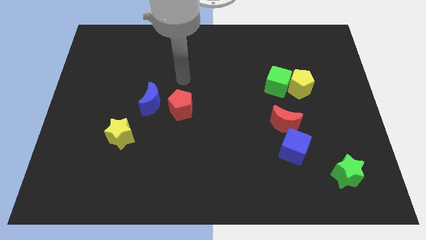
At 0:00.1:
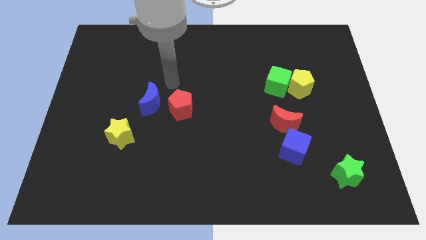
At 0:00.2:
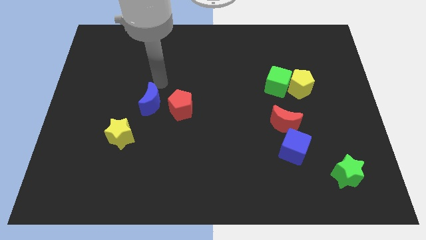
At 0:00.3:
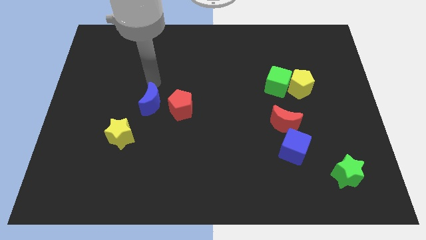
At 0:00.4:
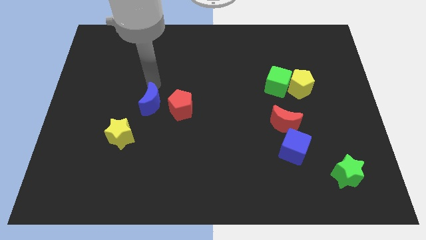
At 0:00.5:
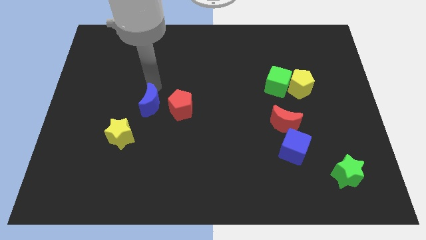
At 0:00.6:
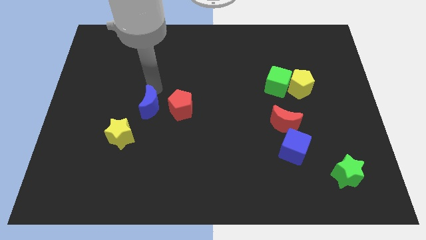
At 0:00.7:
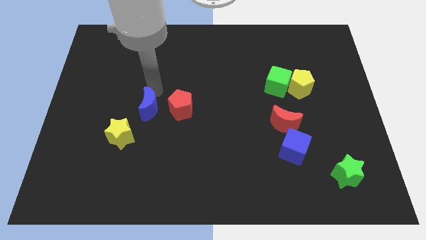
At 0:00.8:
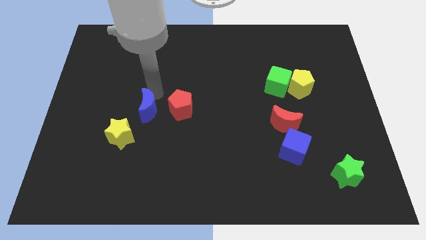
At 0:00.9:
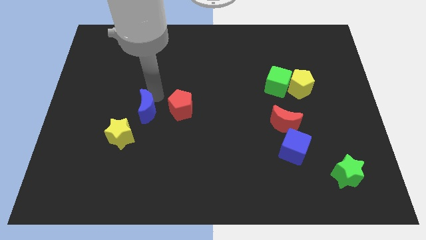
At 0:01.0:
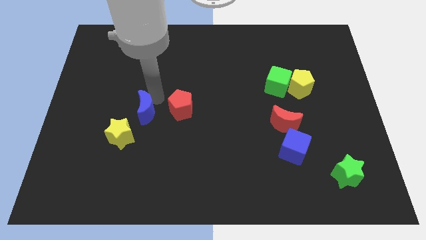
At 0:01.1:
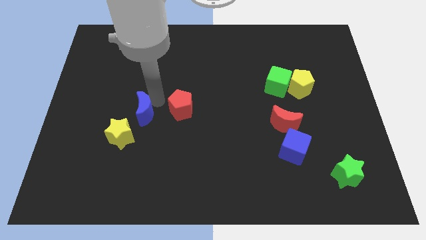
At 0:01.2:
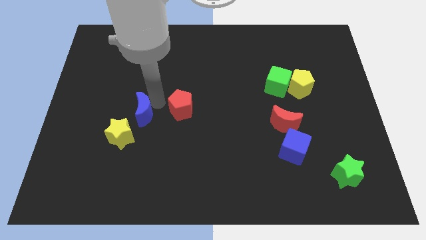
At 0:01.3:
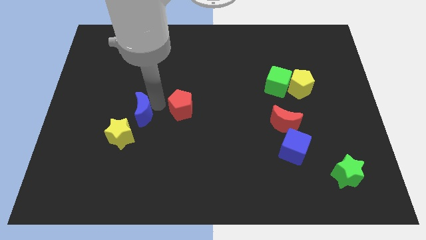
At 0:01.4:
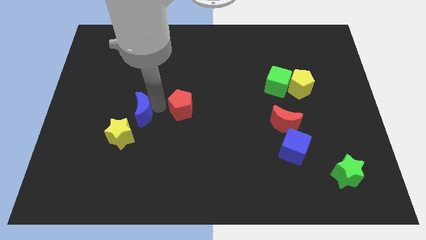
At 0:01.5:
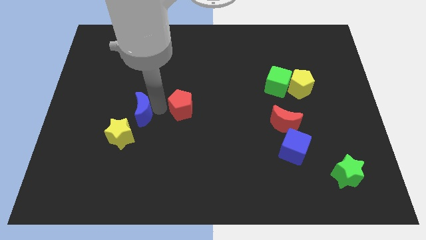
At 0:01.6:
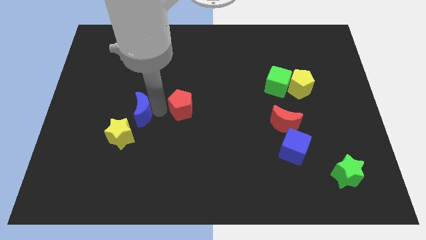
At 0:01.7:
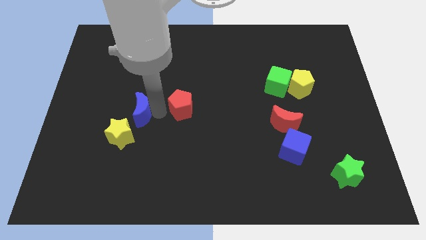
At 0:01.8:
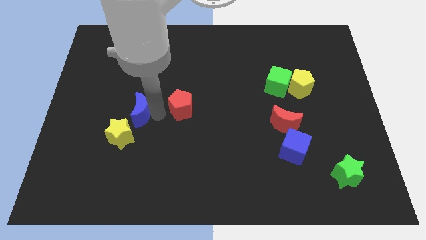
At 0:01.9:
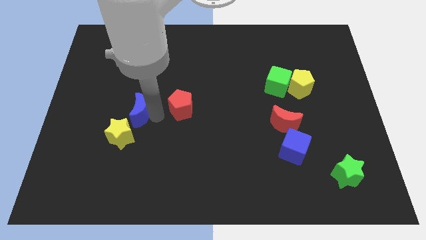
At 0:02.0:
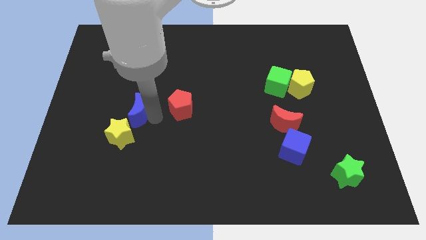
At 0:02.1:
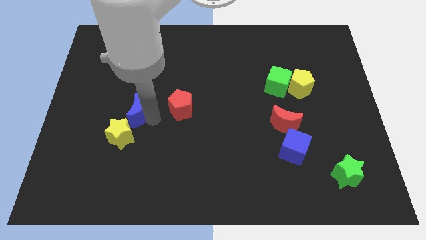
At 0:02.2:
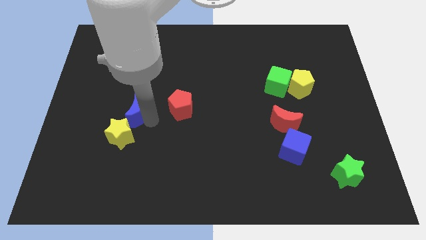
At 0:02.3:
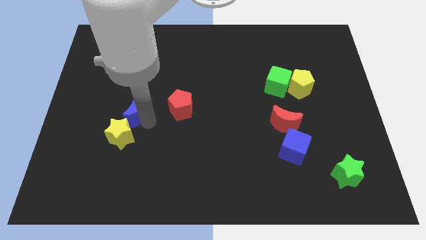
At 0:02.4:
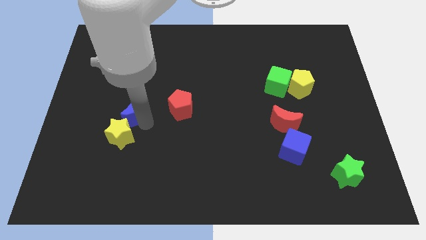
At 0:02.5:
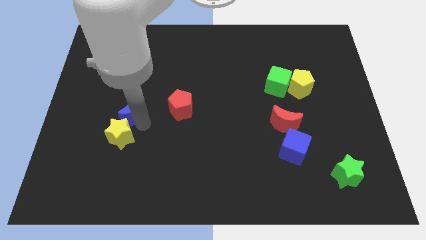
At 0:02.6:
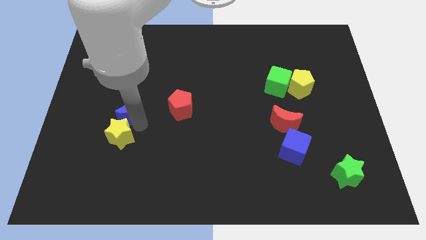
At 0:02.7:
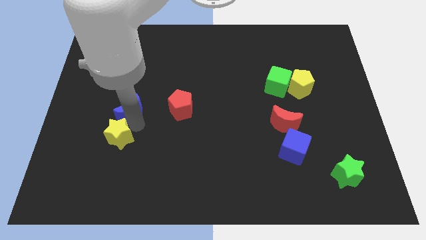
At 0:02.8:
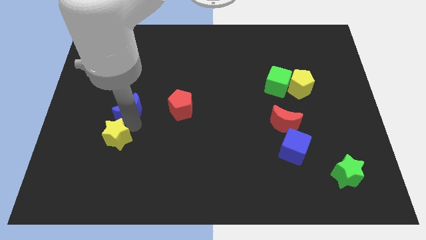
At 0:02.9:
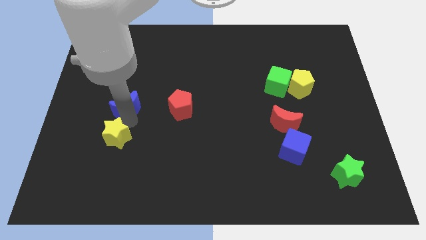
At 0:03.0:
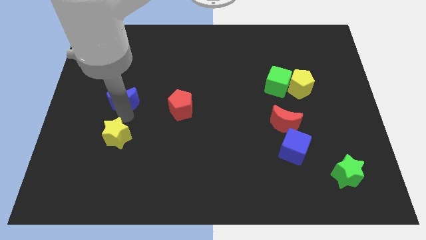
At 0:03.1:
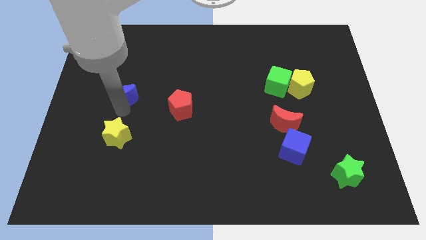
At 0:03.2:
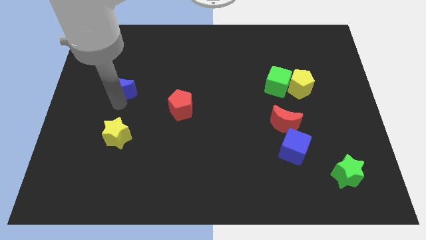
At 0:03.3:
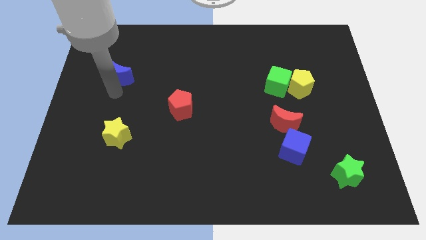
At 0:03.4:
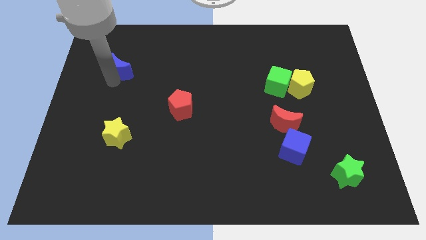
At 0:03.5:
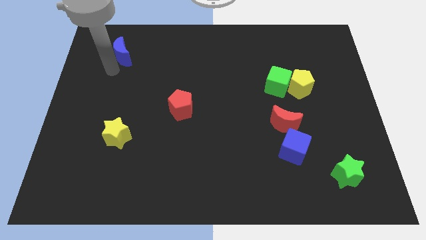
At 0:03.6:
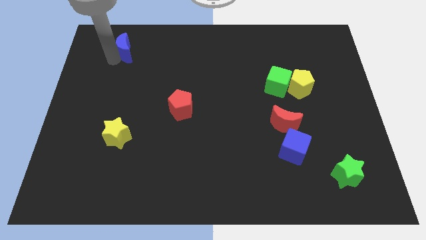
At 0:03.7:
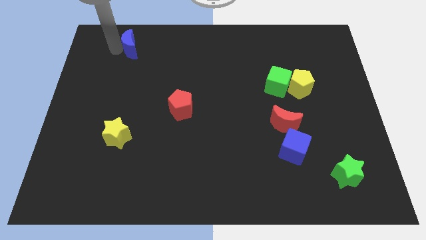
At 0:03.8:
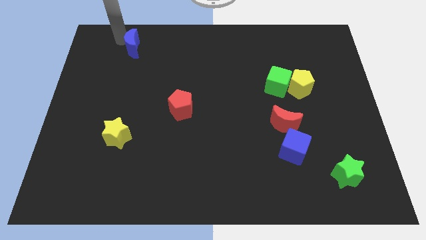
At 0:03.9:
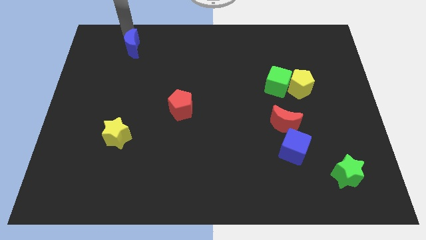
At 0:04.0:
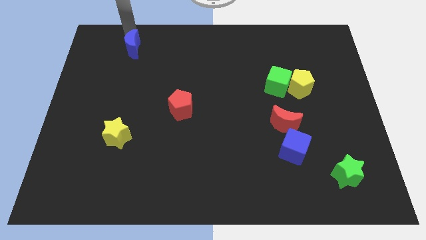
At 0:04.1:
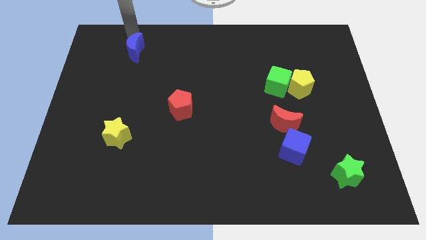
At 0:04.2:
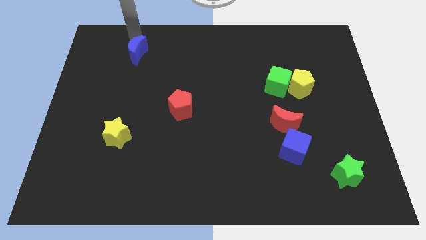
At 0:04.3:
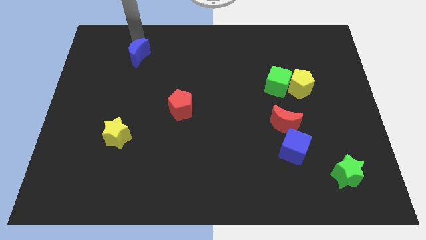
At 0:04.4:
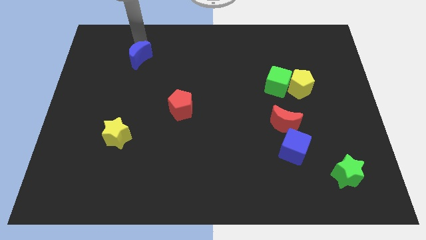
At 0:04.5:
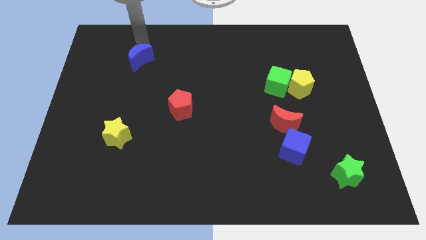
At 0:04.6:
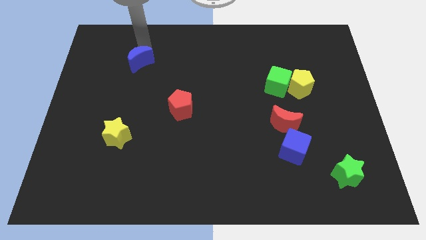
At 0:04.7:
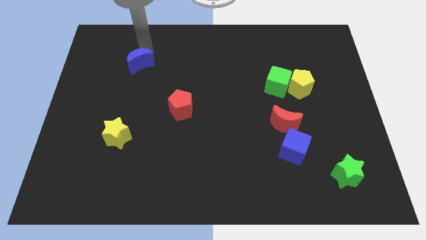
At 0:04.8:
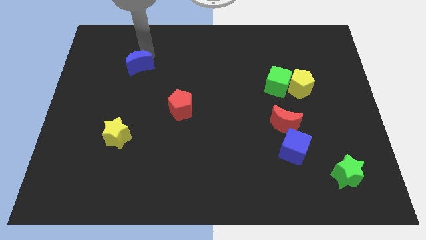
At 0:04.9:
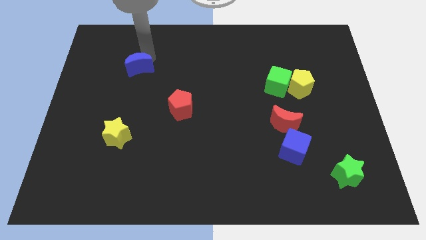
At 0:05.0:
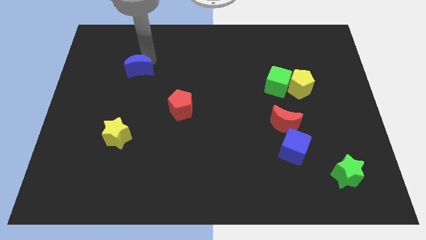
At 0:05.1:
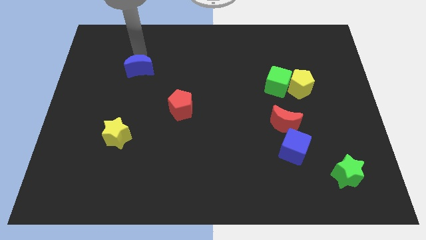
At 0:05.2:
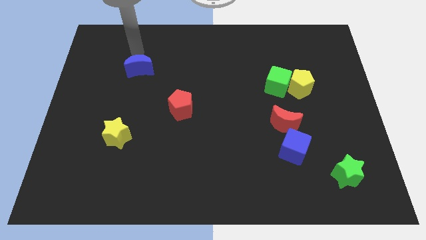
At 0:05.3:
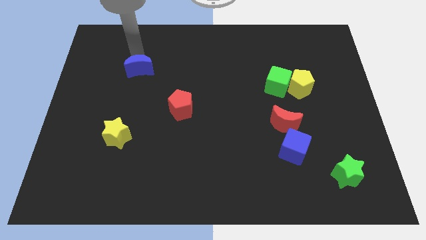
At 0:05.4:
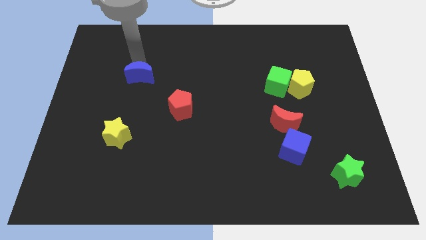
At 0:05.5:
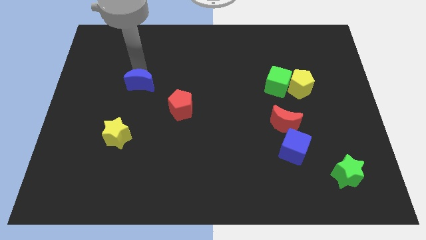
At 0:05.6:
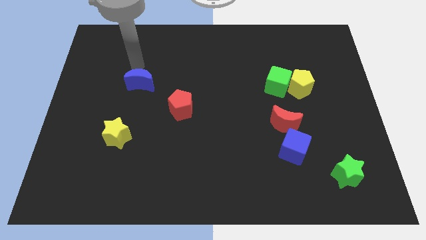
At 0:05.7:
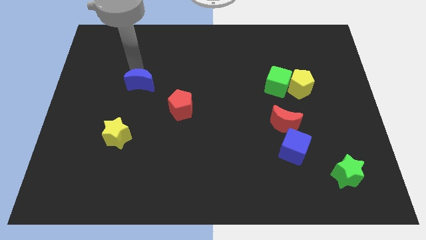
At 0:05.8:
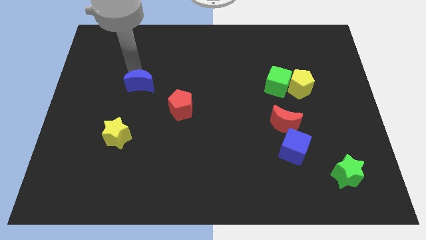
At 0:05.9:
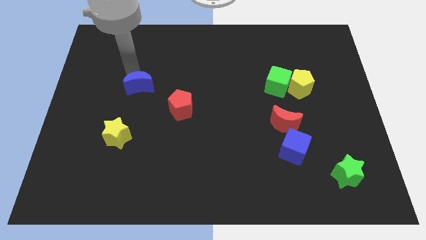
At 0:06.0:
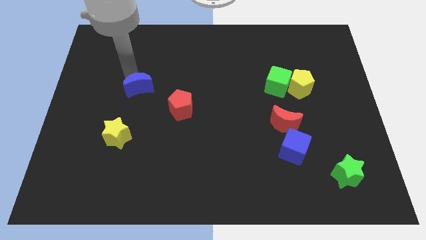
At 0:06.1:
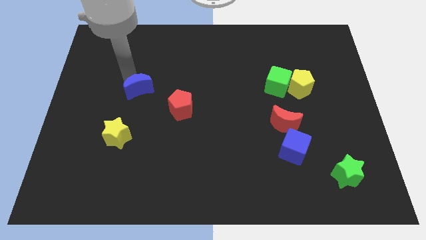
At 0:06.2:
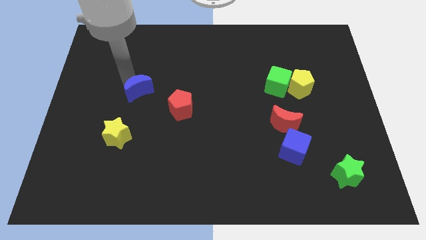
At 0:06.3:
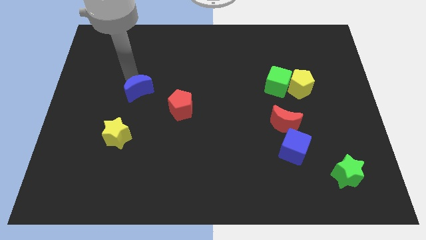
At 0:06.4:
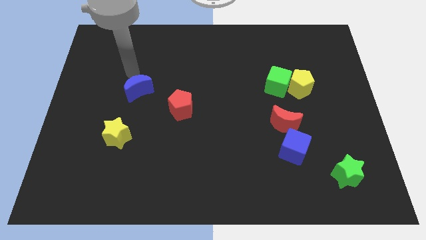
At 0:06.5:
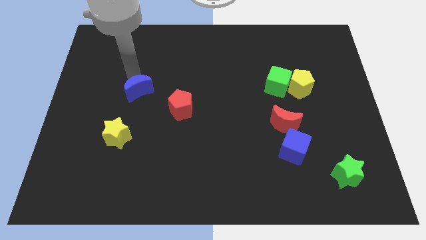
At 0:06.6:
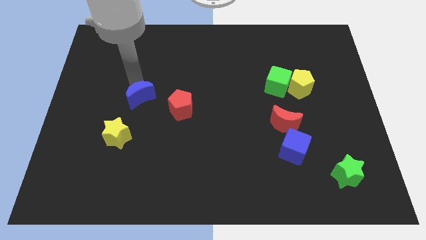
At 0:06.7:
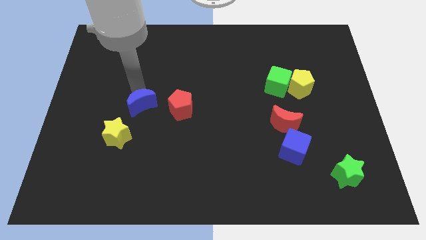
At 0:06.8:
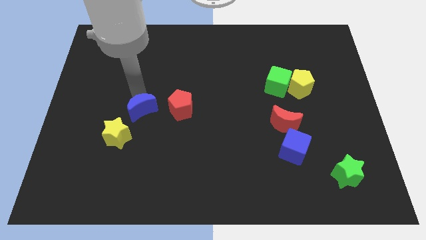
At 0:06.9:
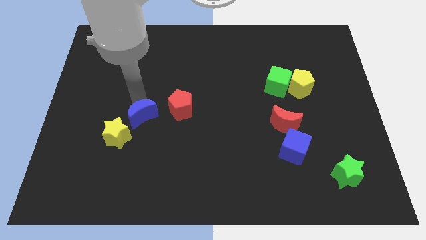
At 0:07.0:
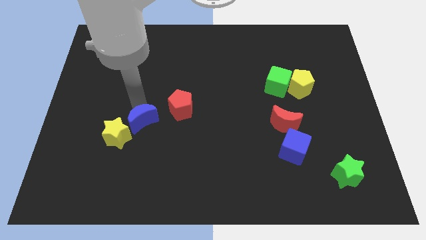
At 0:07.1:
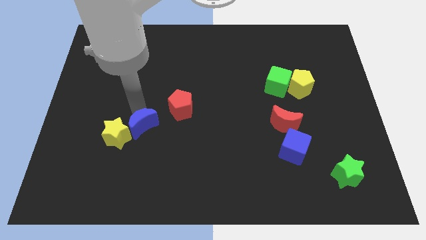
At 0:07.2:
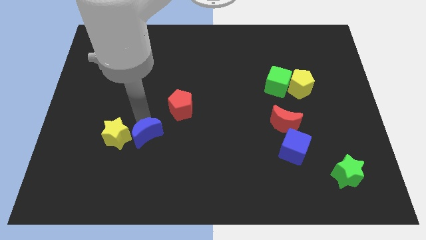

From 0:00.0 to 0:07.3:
move the blue moon to the bottom right of the yellow star
